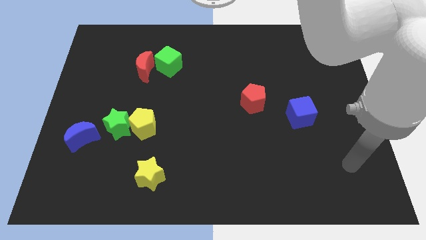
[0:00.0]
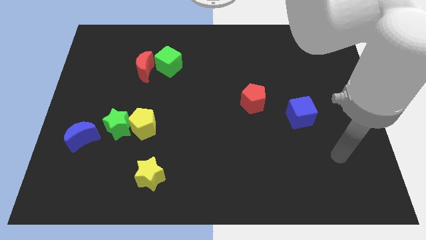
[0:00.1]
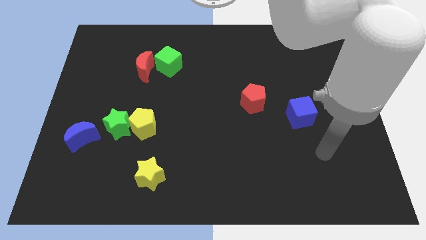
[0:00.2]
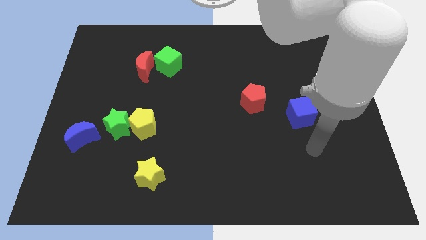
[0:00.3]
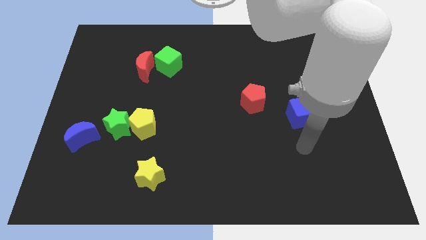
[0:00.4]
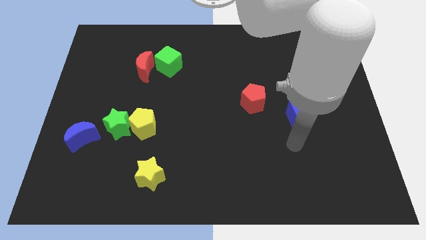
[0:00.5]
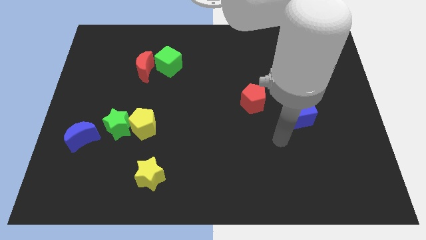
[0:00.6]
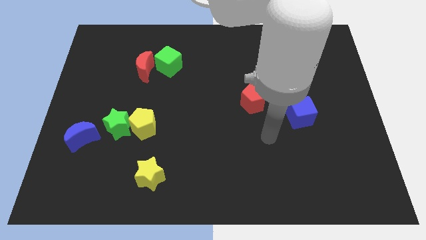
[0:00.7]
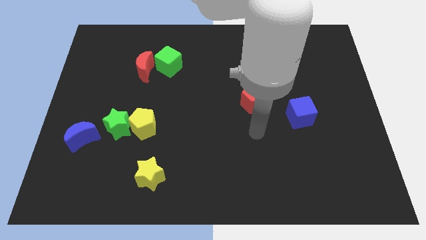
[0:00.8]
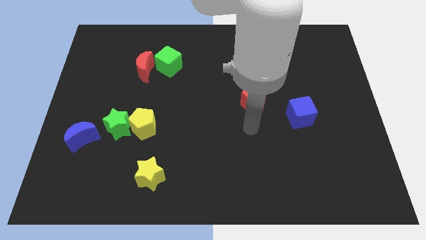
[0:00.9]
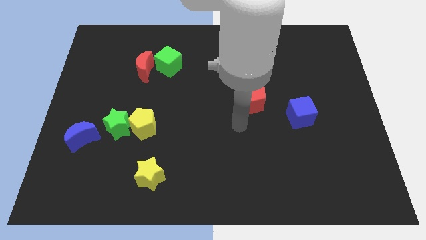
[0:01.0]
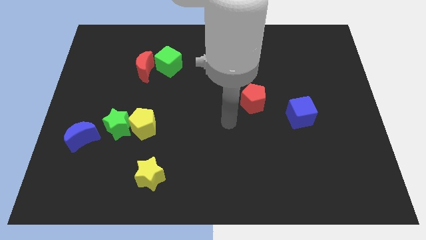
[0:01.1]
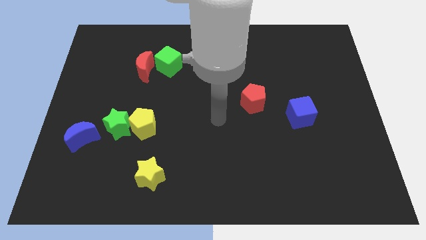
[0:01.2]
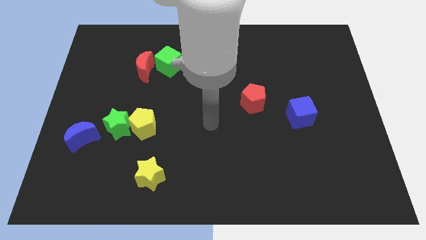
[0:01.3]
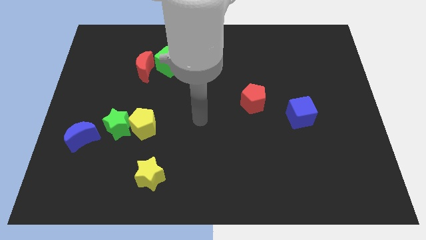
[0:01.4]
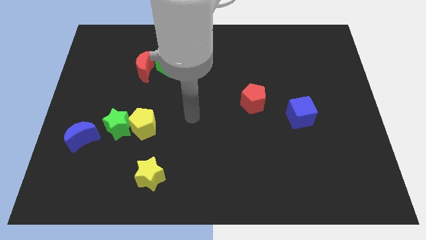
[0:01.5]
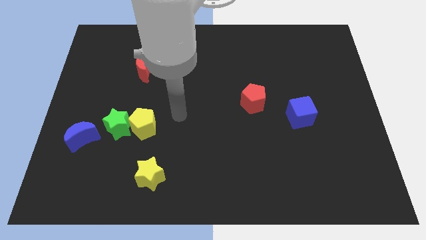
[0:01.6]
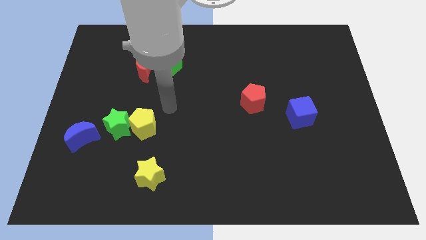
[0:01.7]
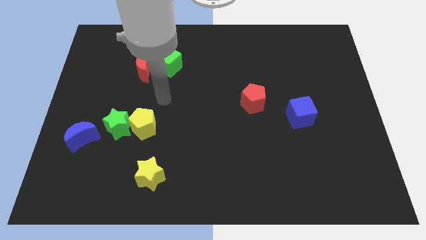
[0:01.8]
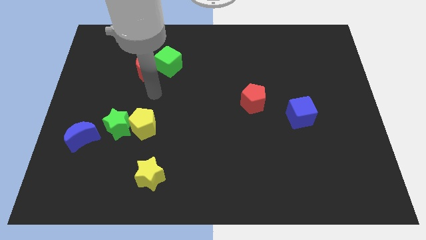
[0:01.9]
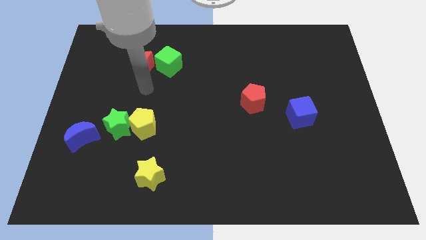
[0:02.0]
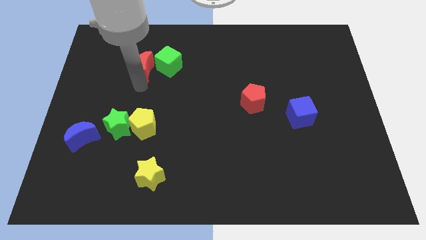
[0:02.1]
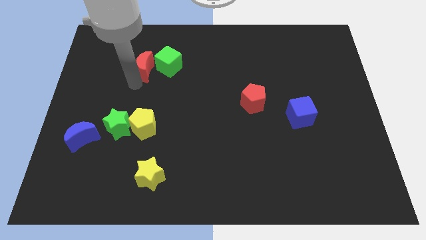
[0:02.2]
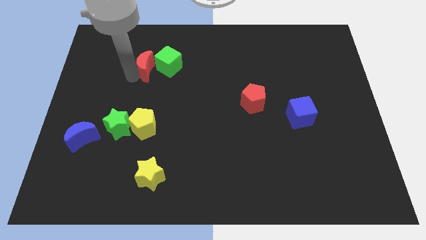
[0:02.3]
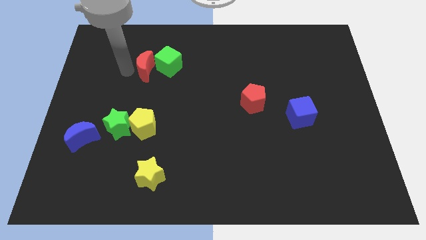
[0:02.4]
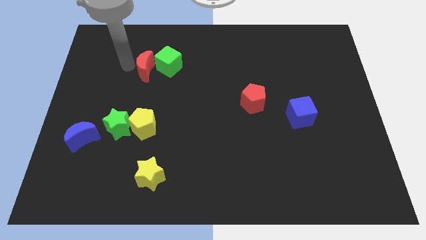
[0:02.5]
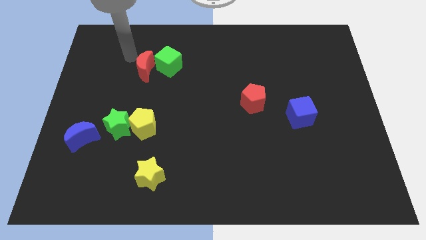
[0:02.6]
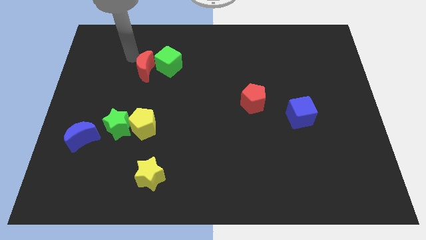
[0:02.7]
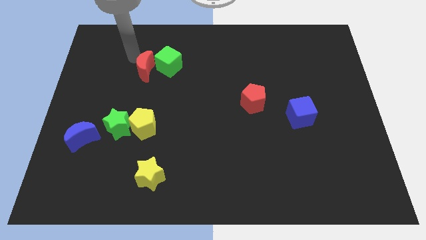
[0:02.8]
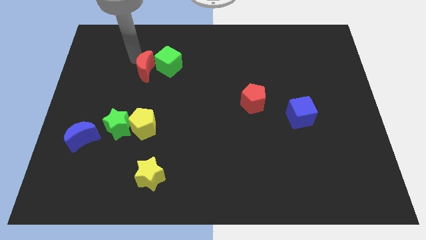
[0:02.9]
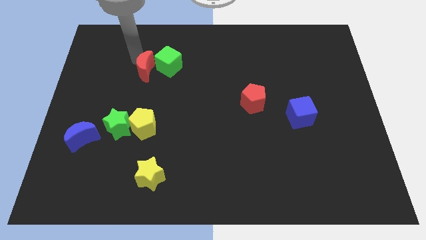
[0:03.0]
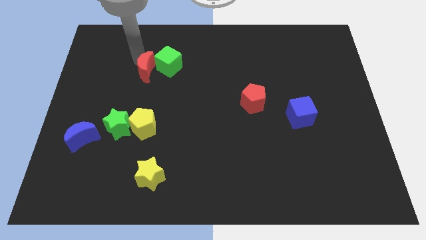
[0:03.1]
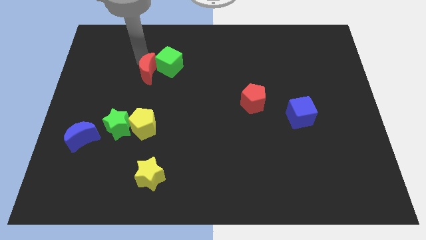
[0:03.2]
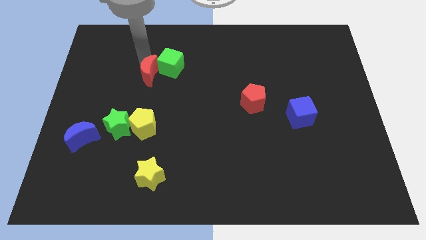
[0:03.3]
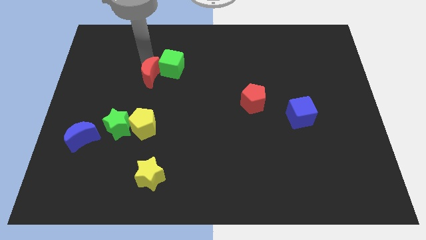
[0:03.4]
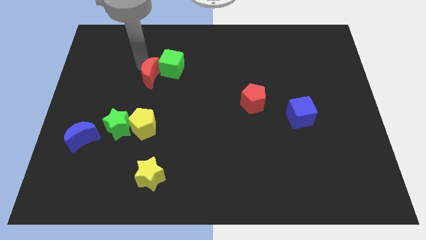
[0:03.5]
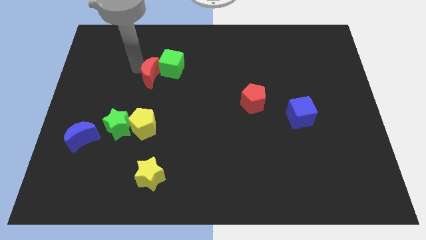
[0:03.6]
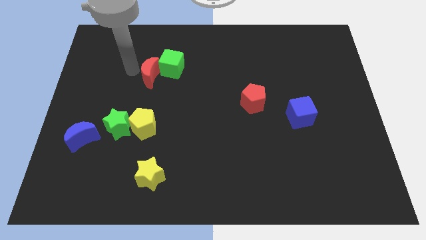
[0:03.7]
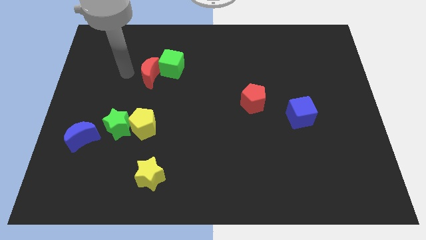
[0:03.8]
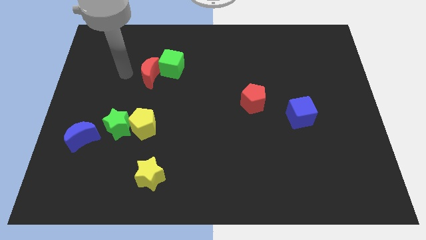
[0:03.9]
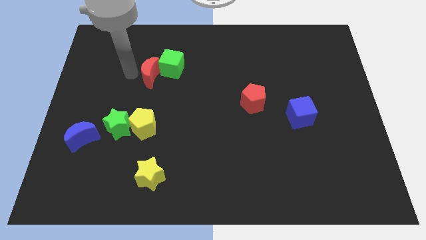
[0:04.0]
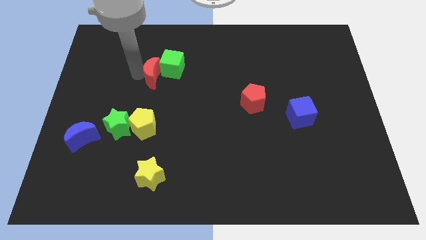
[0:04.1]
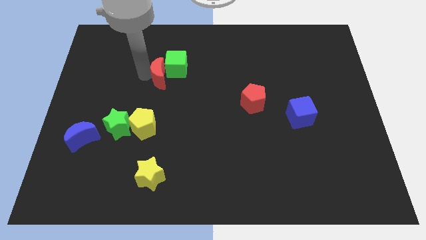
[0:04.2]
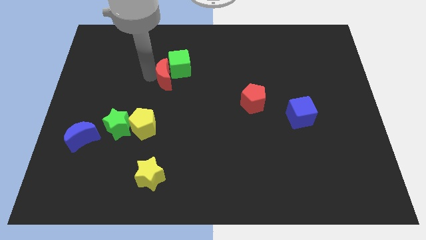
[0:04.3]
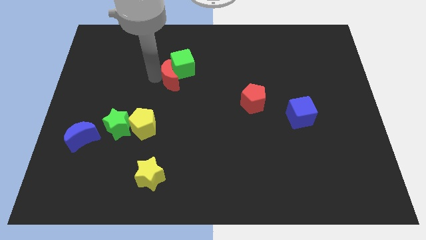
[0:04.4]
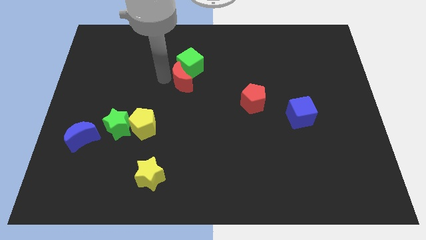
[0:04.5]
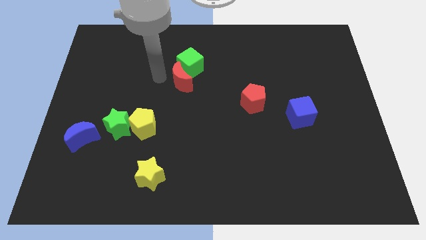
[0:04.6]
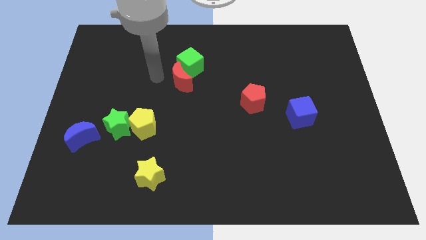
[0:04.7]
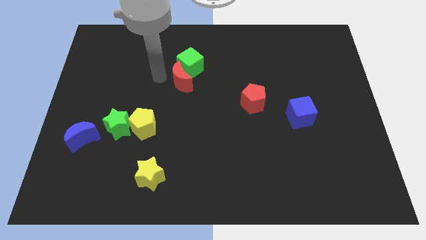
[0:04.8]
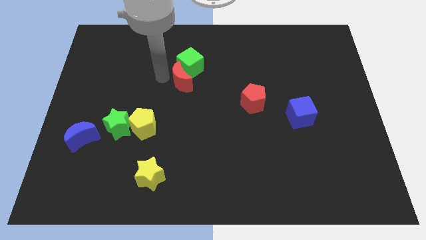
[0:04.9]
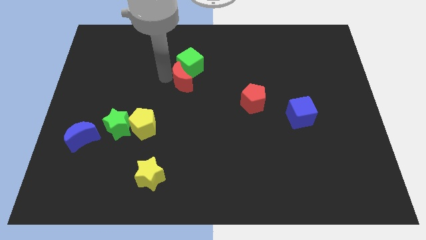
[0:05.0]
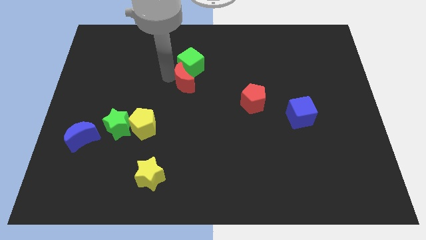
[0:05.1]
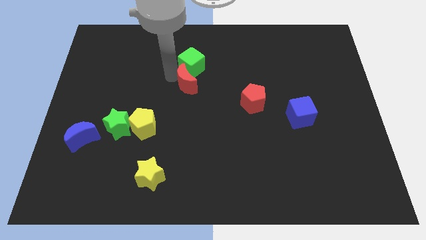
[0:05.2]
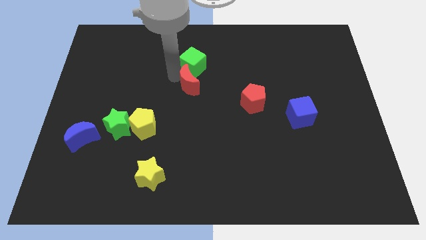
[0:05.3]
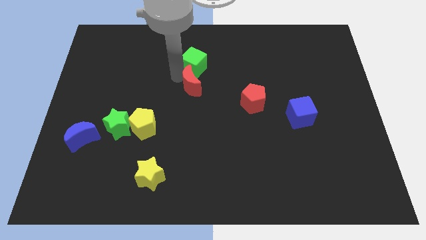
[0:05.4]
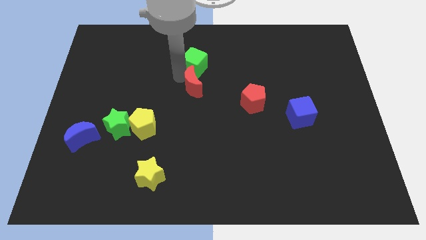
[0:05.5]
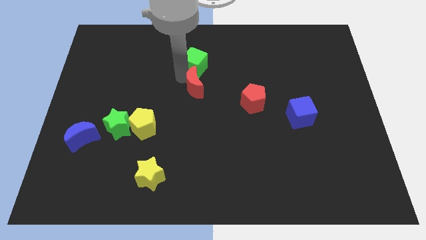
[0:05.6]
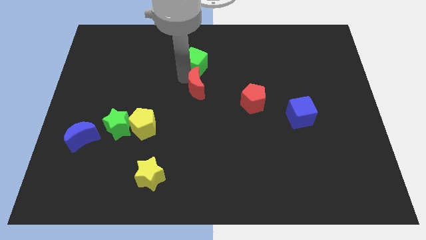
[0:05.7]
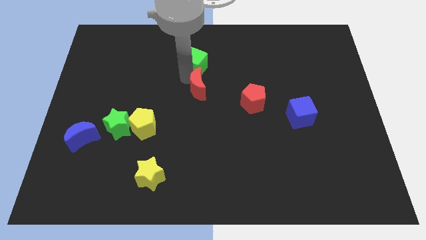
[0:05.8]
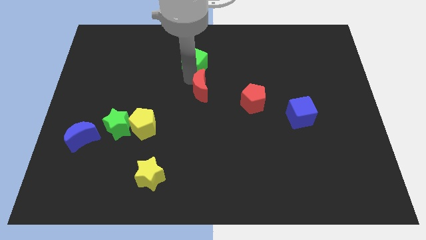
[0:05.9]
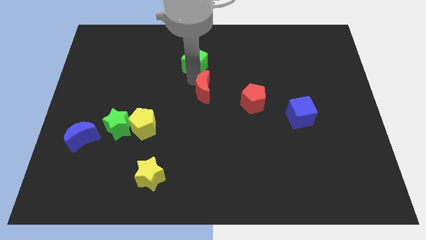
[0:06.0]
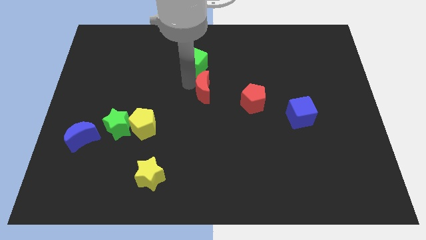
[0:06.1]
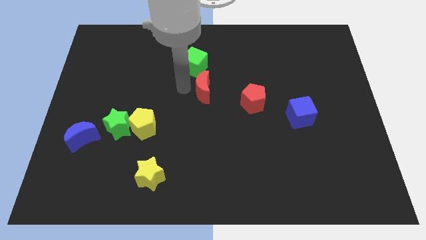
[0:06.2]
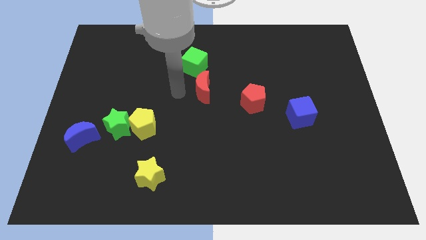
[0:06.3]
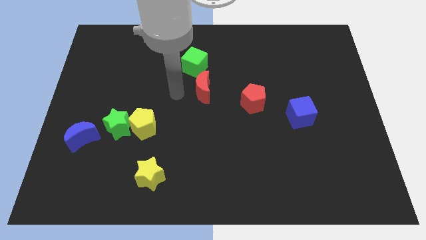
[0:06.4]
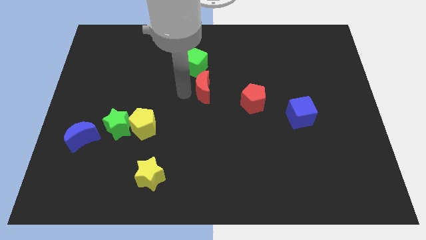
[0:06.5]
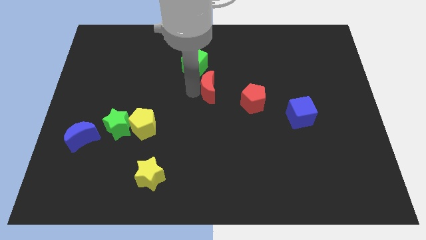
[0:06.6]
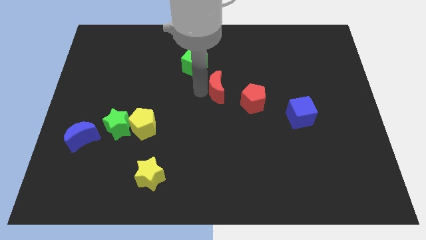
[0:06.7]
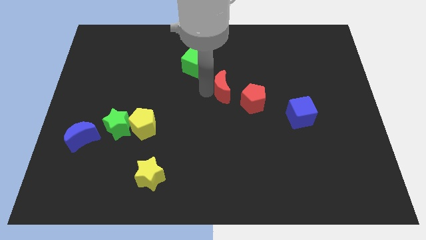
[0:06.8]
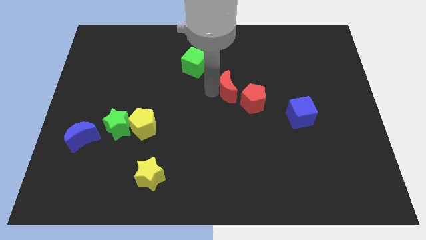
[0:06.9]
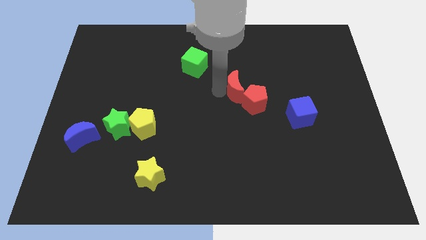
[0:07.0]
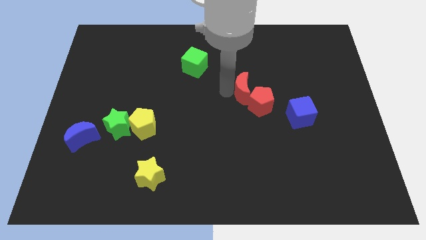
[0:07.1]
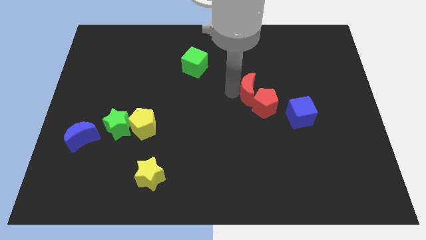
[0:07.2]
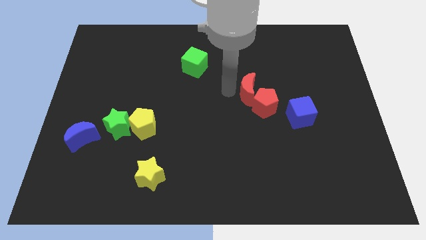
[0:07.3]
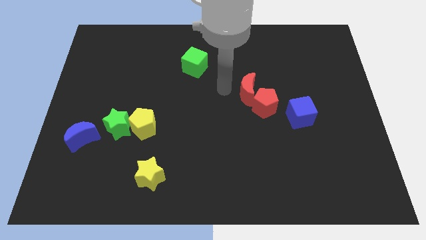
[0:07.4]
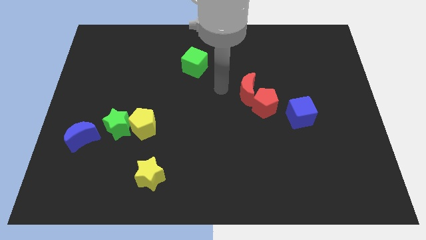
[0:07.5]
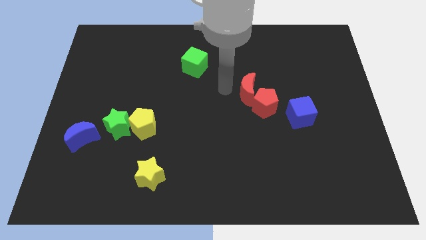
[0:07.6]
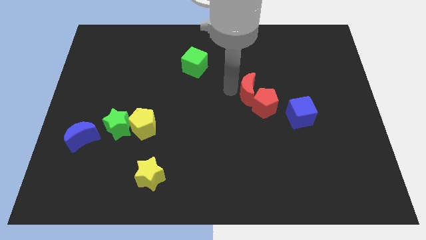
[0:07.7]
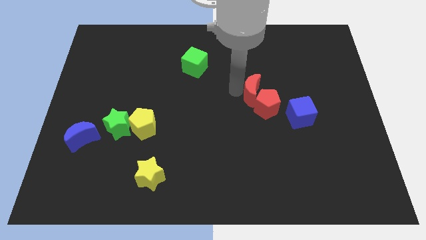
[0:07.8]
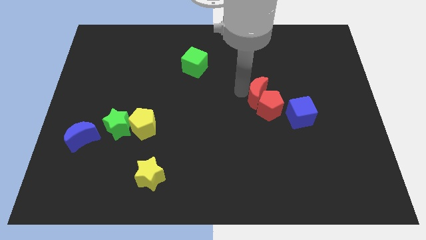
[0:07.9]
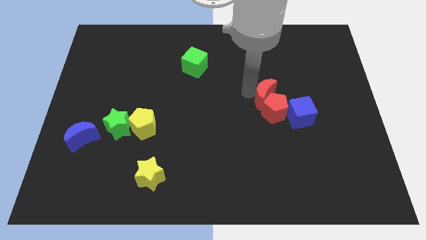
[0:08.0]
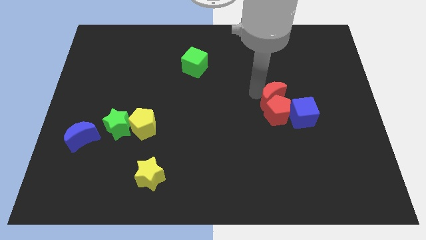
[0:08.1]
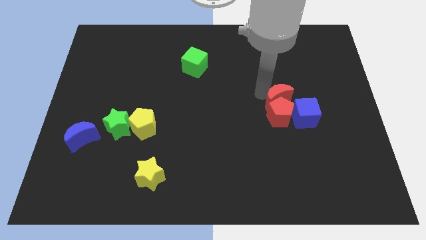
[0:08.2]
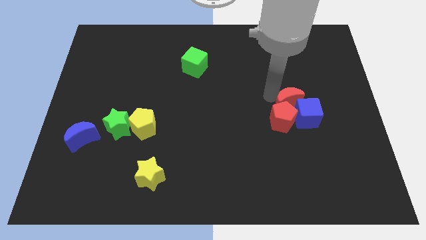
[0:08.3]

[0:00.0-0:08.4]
put the red moon next to the blue cube
